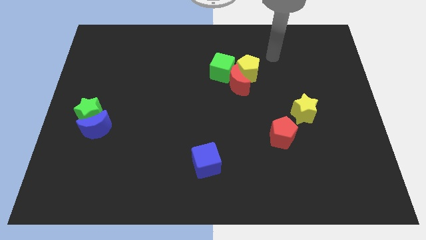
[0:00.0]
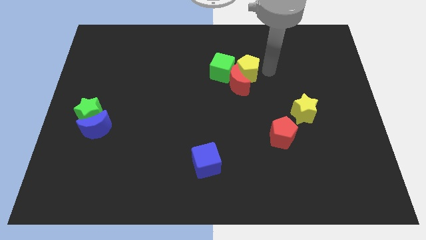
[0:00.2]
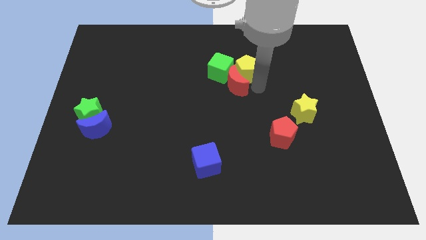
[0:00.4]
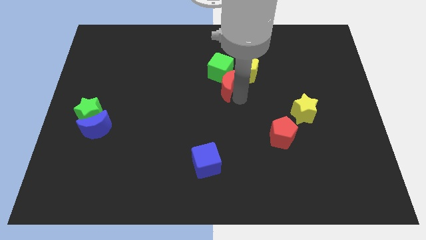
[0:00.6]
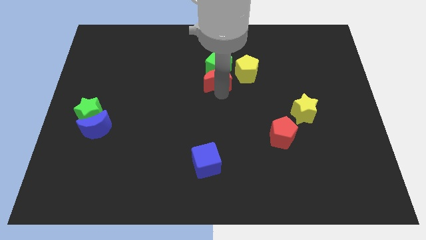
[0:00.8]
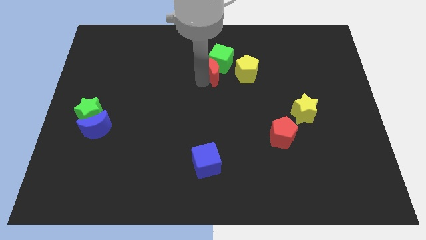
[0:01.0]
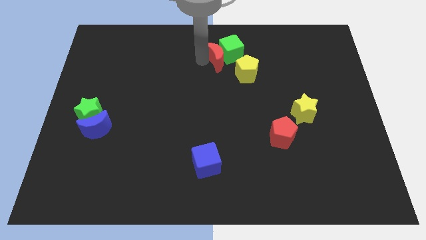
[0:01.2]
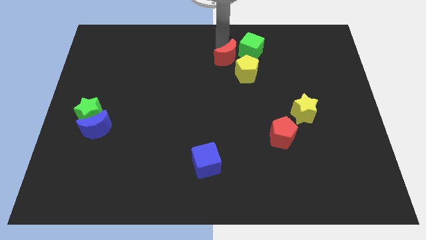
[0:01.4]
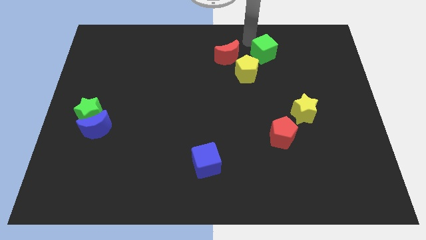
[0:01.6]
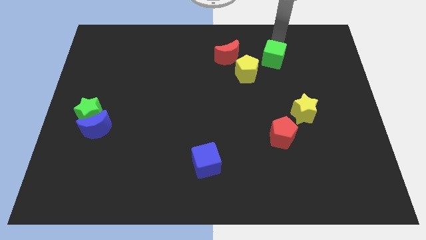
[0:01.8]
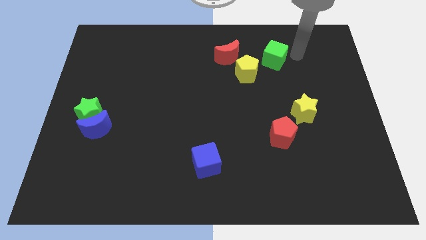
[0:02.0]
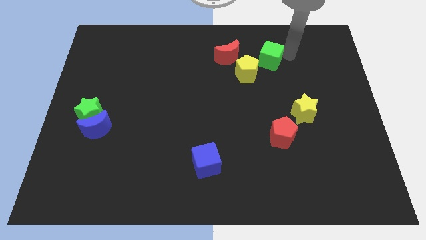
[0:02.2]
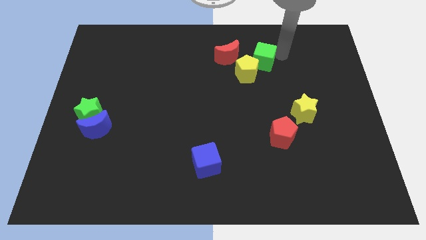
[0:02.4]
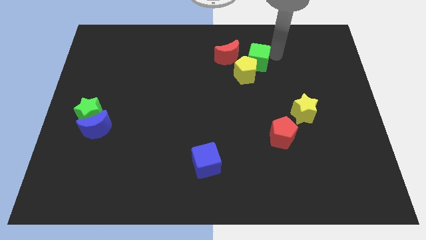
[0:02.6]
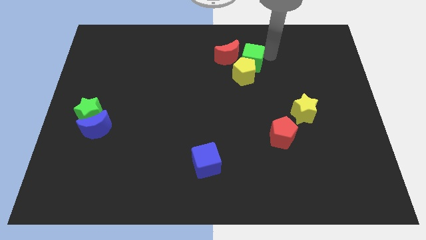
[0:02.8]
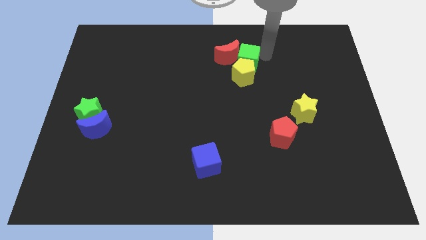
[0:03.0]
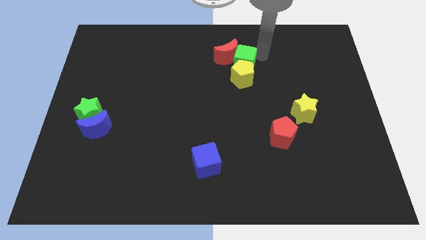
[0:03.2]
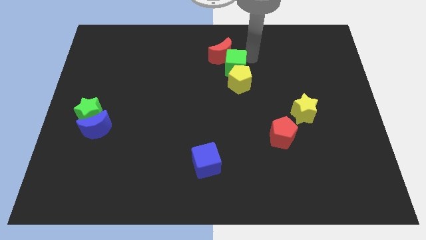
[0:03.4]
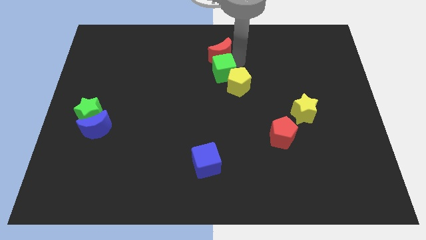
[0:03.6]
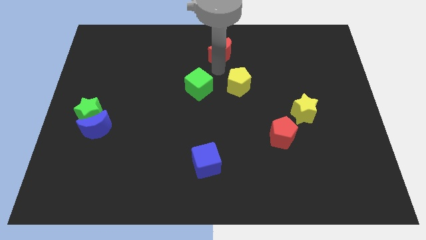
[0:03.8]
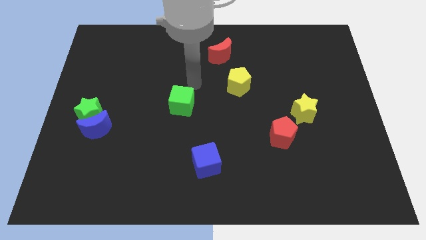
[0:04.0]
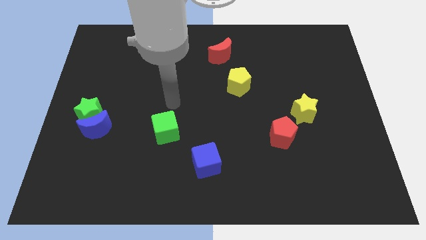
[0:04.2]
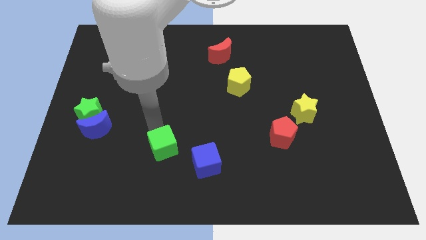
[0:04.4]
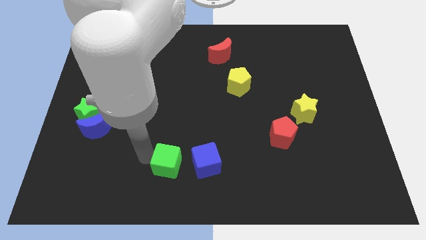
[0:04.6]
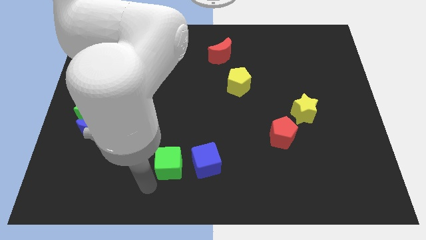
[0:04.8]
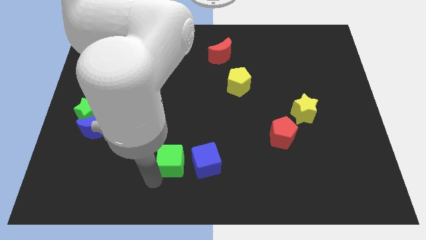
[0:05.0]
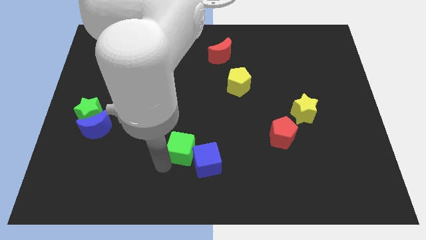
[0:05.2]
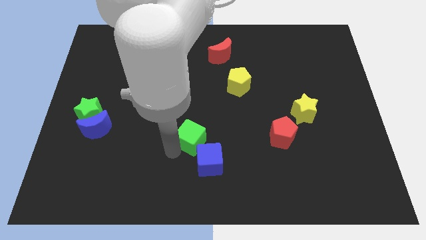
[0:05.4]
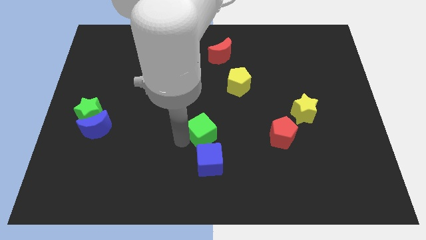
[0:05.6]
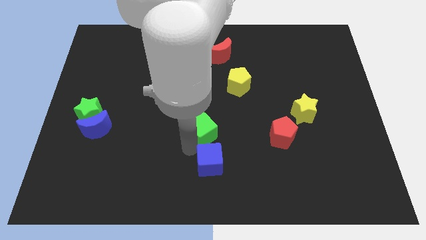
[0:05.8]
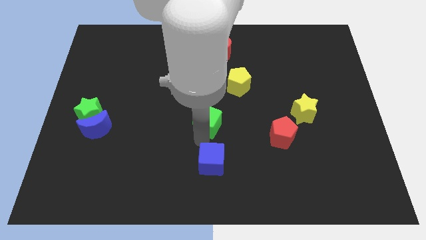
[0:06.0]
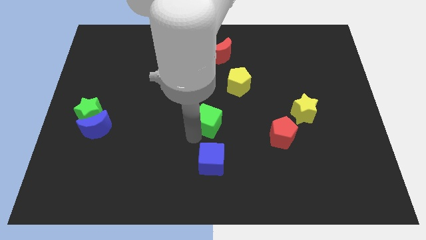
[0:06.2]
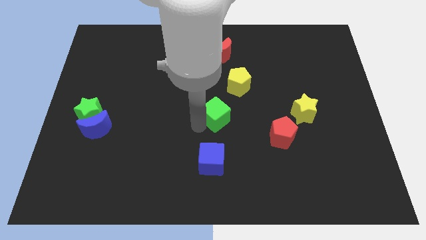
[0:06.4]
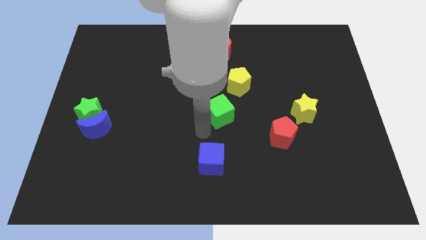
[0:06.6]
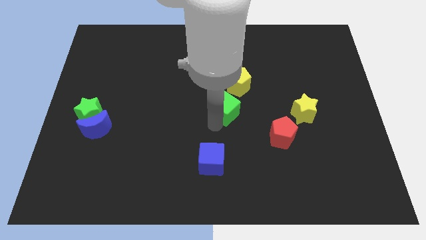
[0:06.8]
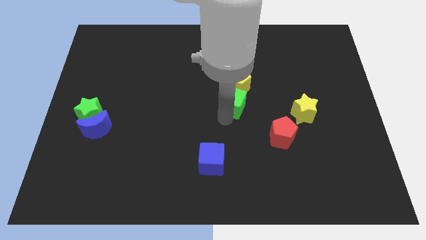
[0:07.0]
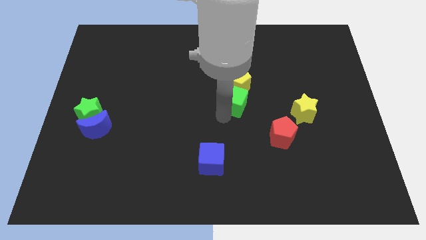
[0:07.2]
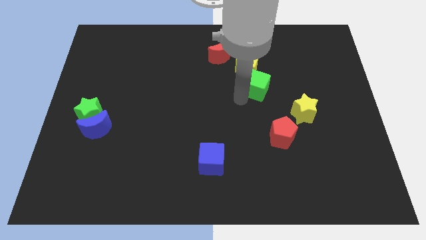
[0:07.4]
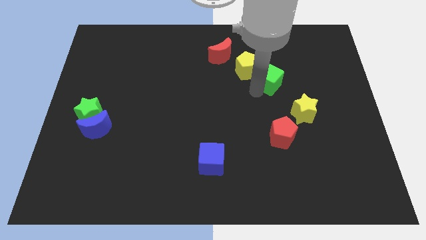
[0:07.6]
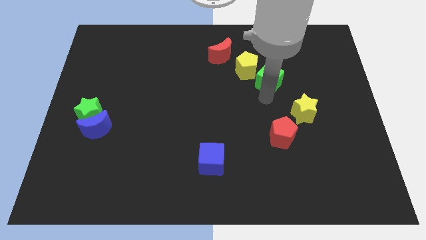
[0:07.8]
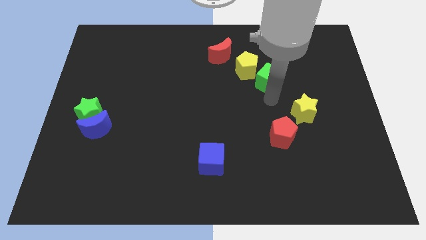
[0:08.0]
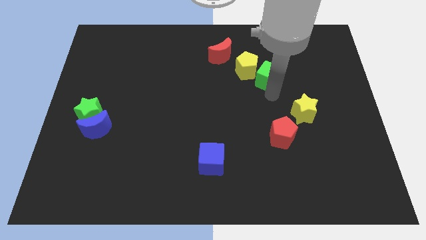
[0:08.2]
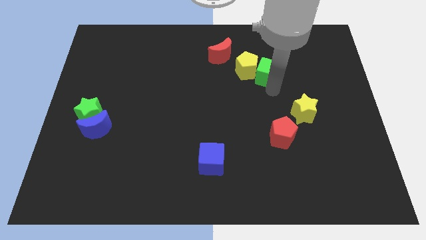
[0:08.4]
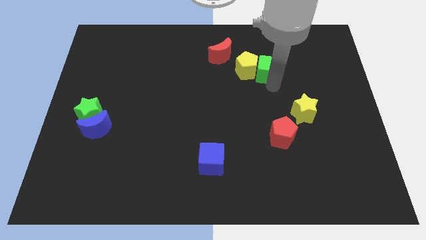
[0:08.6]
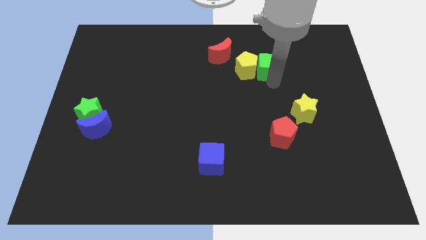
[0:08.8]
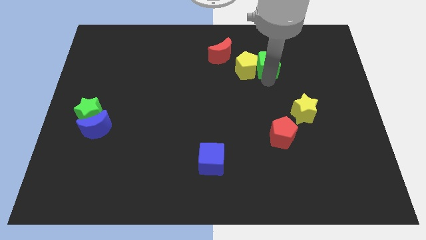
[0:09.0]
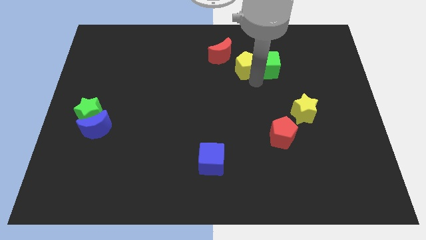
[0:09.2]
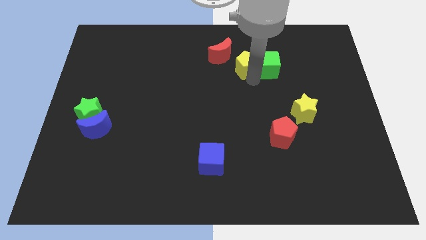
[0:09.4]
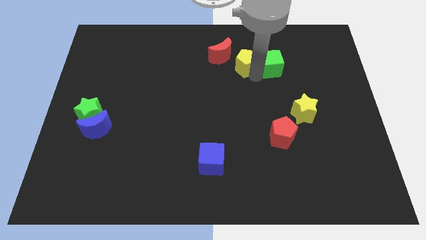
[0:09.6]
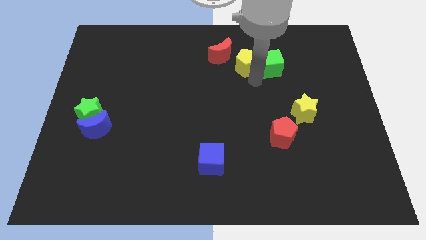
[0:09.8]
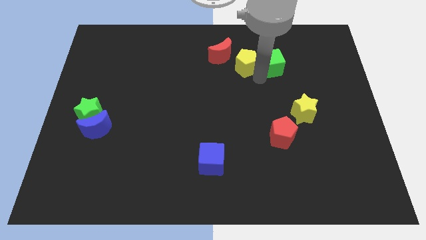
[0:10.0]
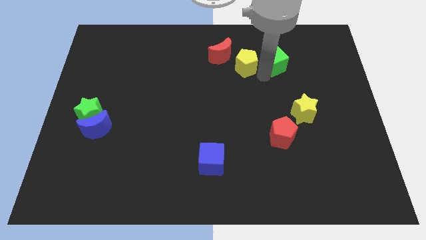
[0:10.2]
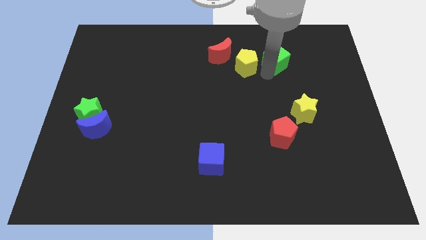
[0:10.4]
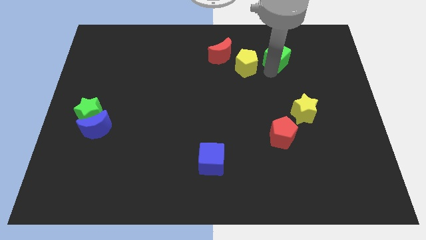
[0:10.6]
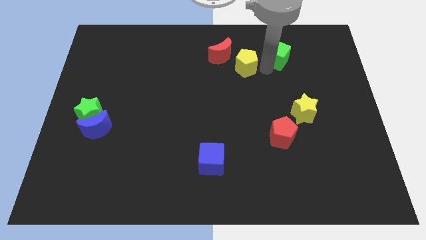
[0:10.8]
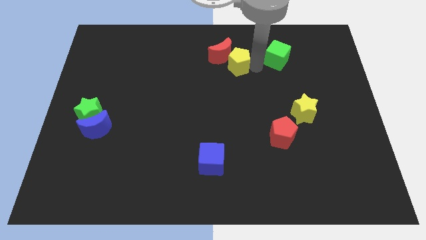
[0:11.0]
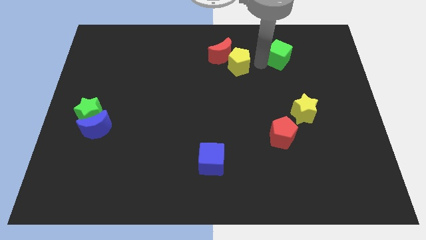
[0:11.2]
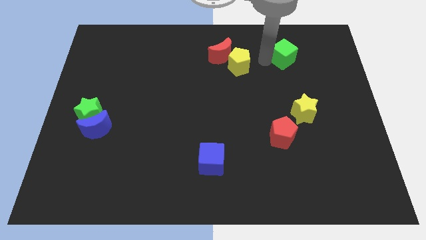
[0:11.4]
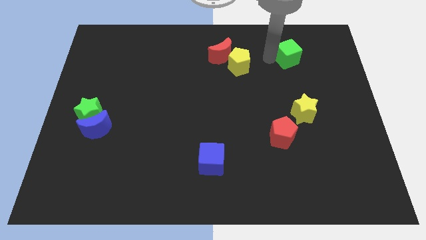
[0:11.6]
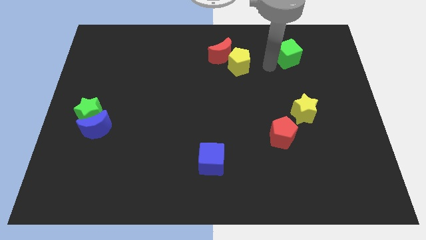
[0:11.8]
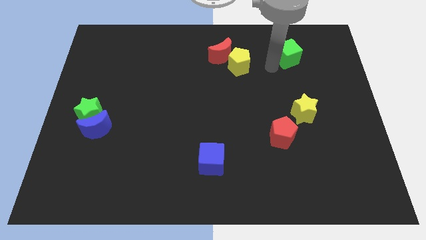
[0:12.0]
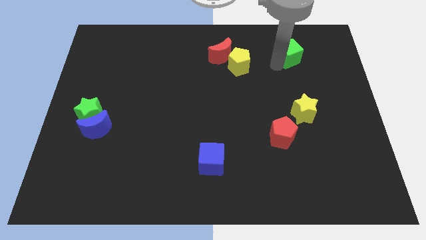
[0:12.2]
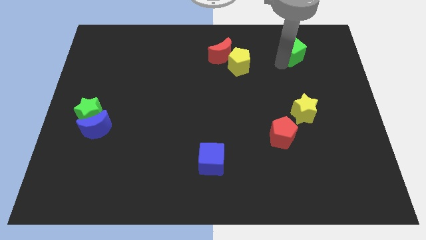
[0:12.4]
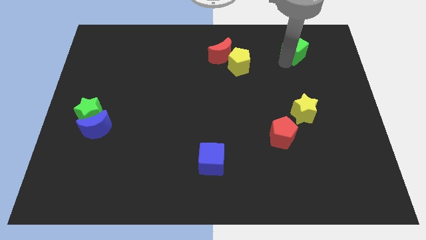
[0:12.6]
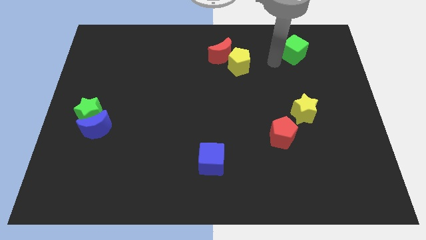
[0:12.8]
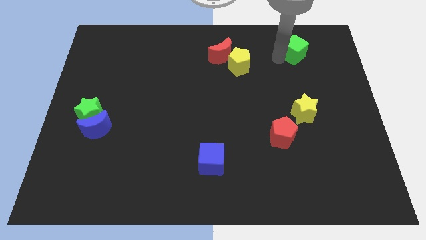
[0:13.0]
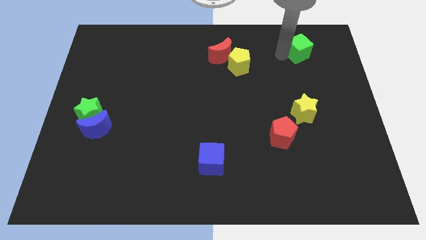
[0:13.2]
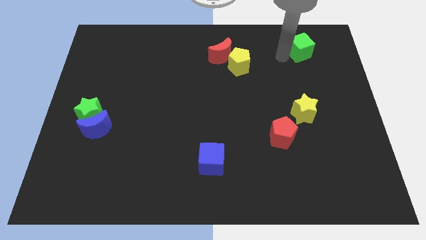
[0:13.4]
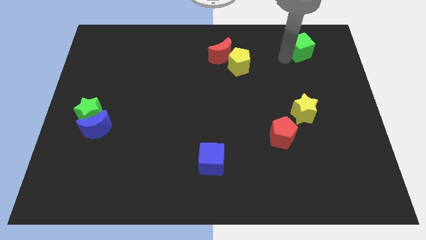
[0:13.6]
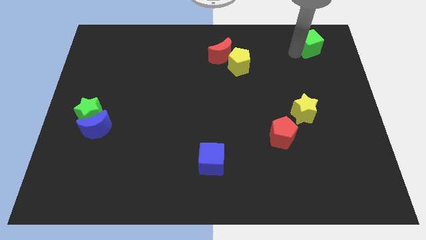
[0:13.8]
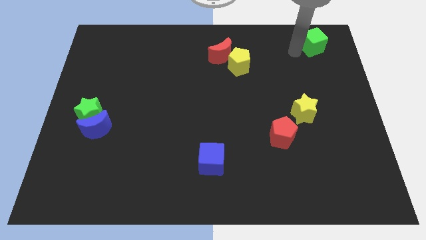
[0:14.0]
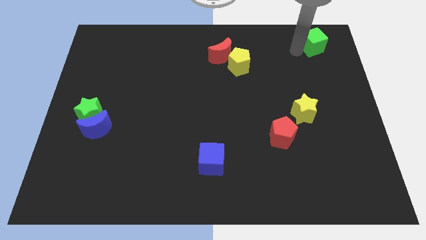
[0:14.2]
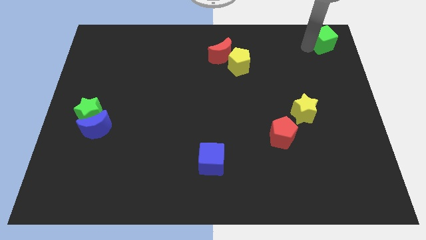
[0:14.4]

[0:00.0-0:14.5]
move the green cube to the top right corner
